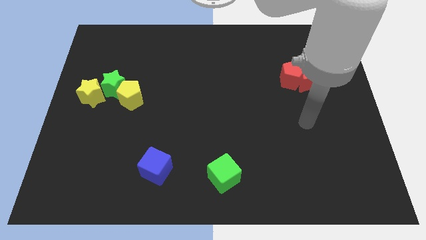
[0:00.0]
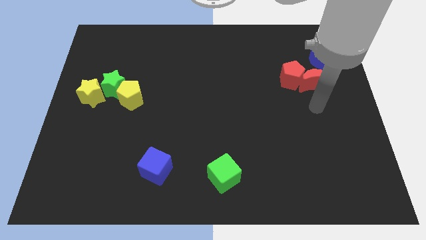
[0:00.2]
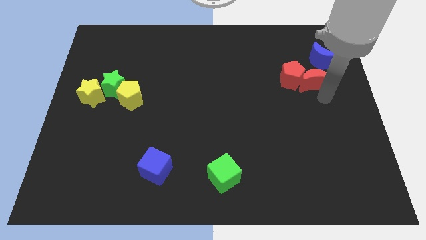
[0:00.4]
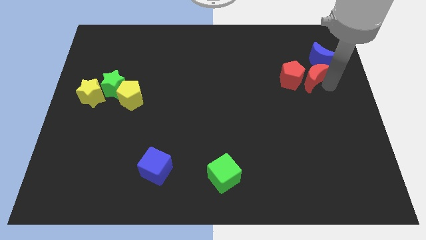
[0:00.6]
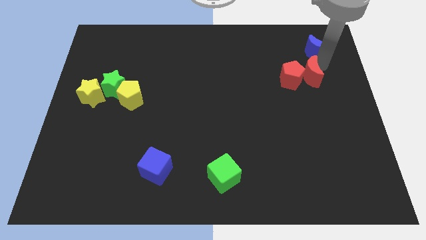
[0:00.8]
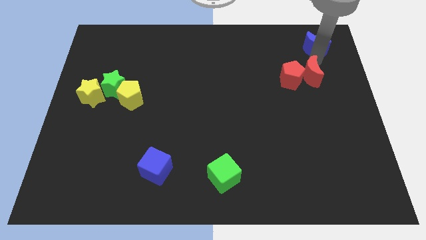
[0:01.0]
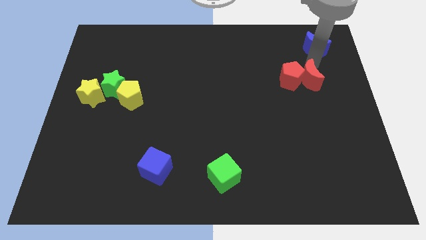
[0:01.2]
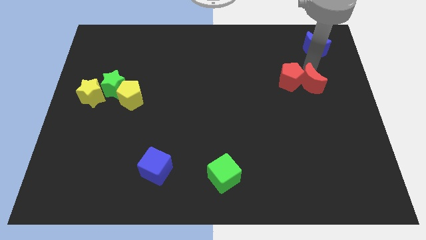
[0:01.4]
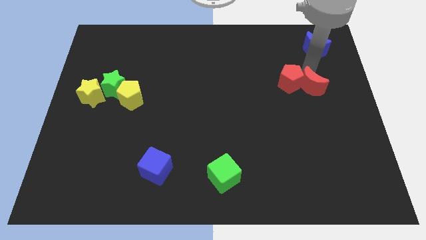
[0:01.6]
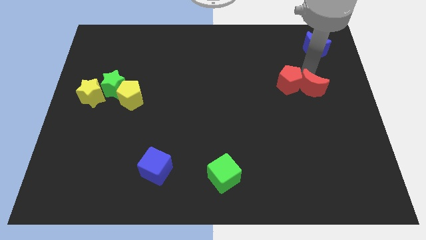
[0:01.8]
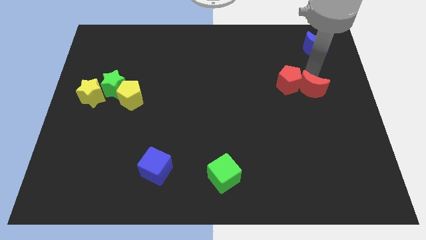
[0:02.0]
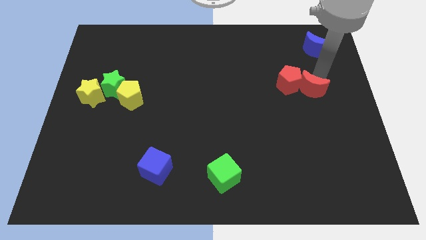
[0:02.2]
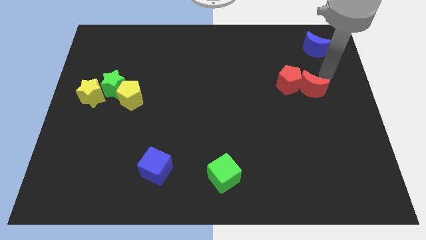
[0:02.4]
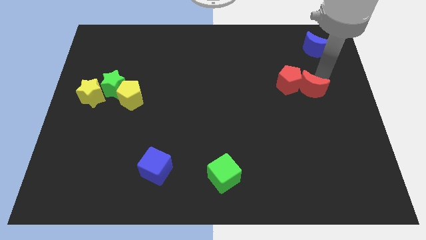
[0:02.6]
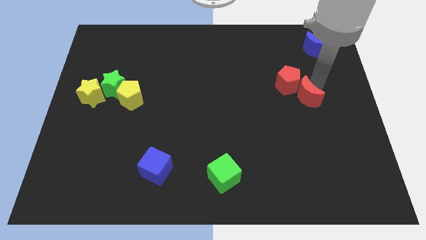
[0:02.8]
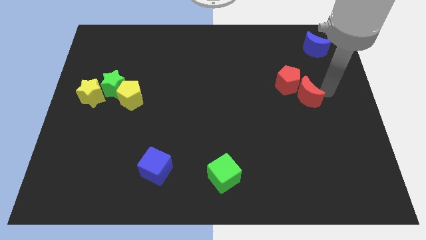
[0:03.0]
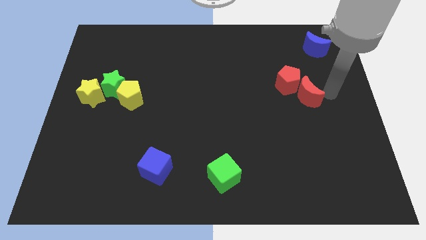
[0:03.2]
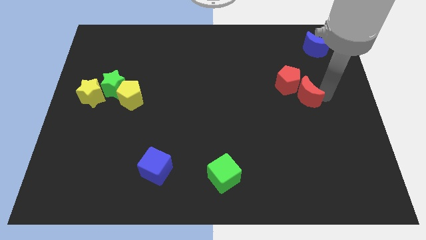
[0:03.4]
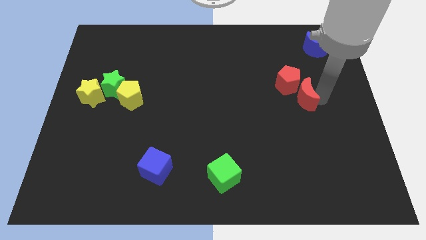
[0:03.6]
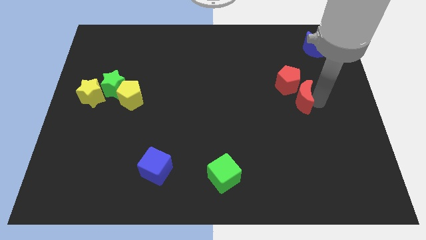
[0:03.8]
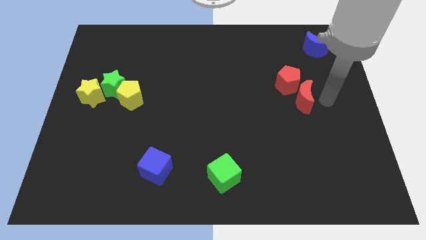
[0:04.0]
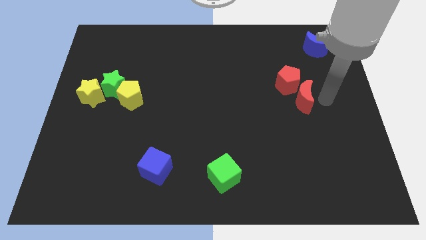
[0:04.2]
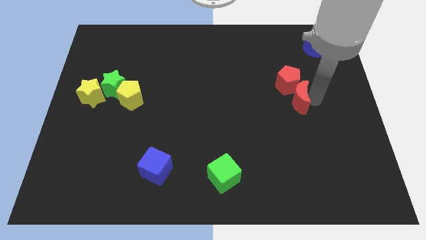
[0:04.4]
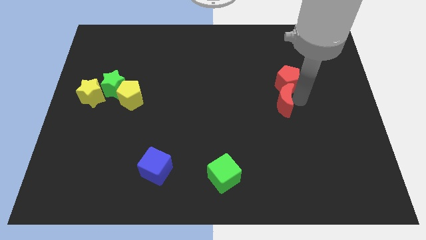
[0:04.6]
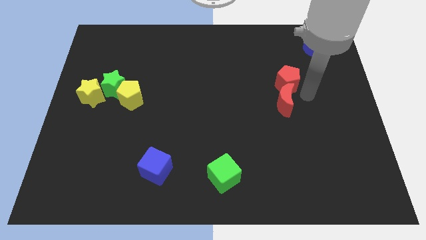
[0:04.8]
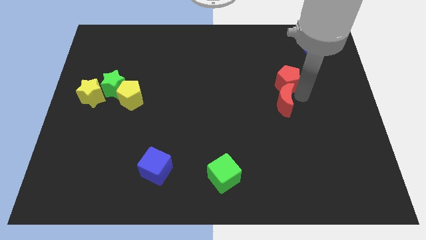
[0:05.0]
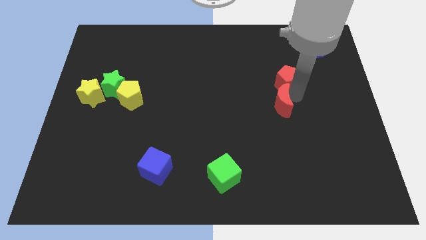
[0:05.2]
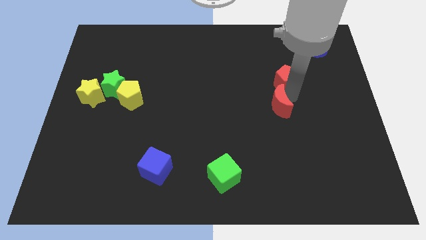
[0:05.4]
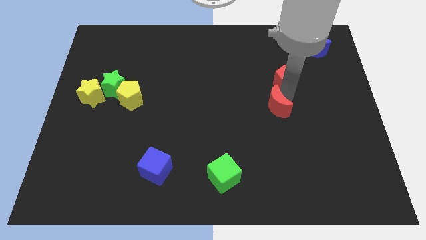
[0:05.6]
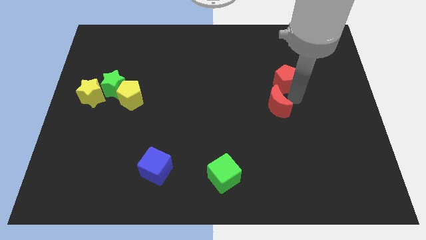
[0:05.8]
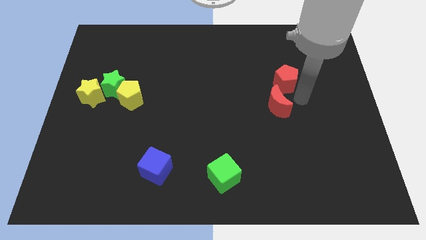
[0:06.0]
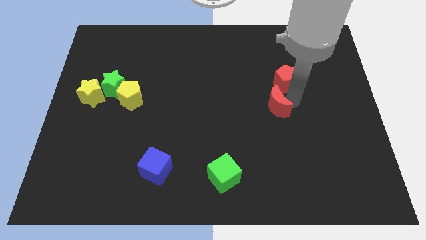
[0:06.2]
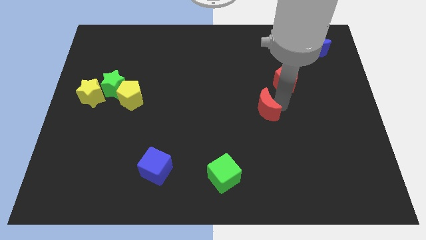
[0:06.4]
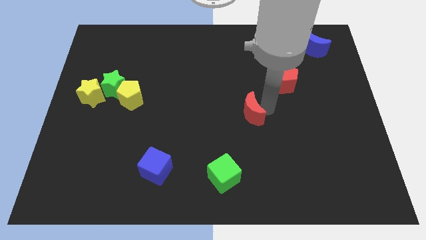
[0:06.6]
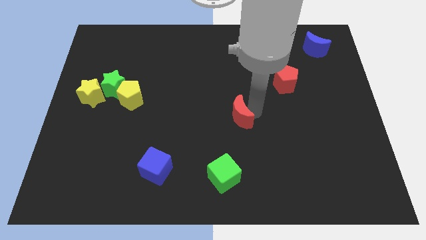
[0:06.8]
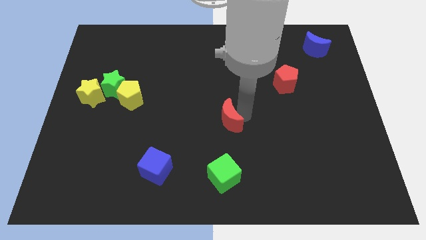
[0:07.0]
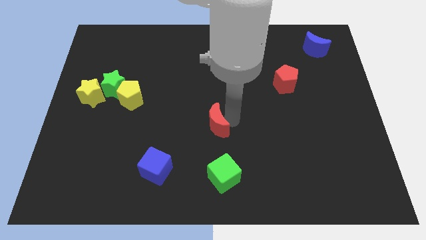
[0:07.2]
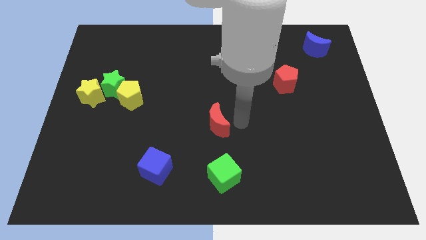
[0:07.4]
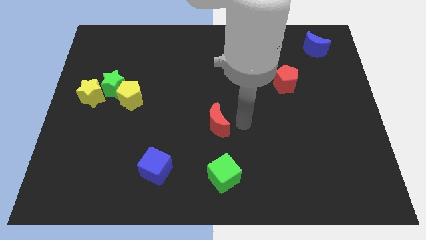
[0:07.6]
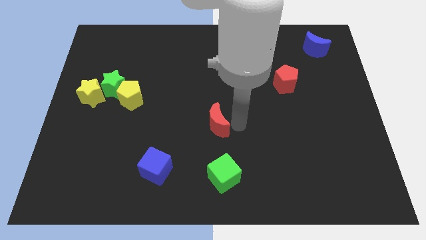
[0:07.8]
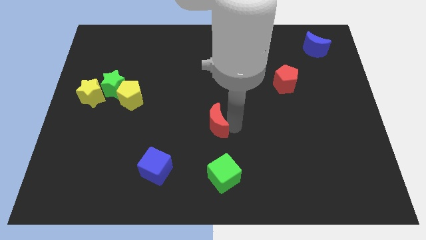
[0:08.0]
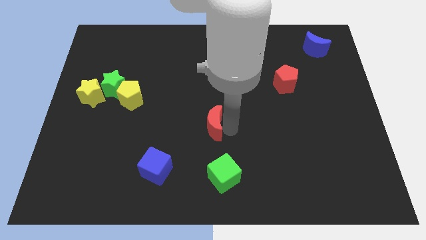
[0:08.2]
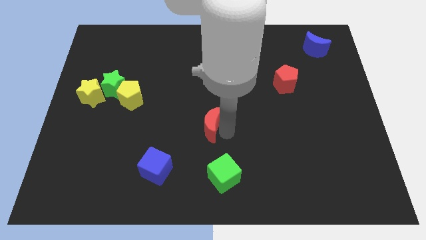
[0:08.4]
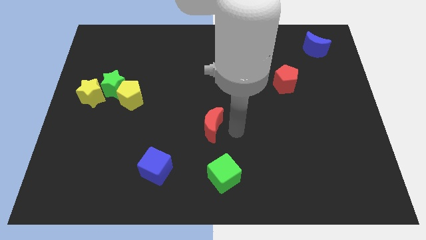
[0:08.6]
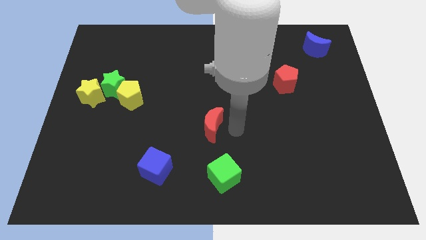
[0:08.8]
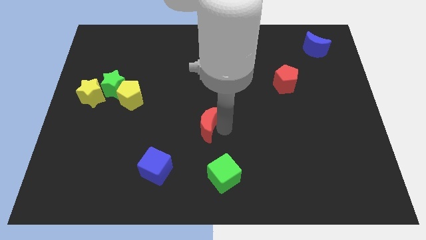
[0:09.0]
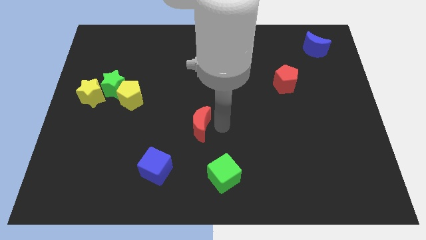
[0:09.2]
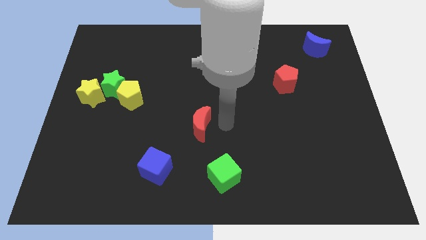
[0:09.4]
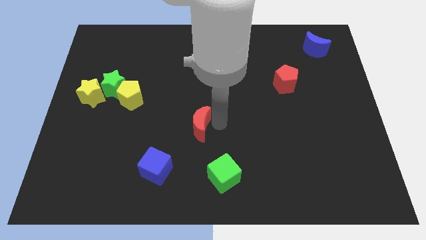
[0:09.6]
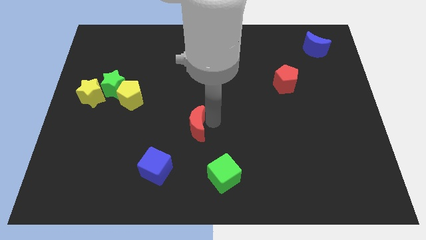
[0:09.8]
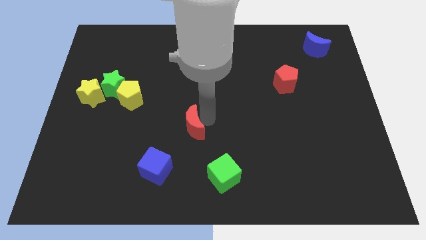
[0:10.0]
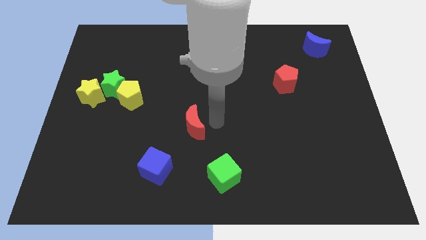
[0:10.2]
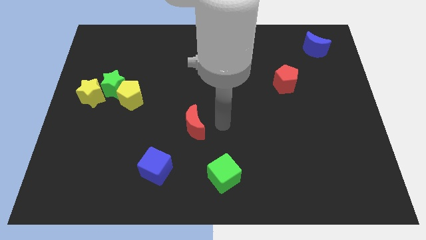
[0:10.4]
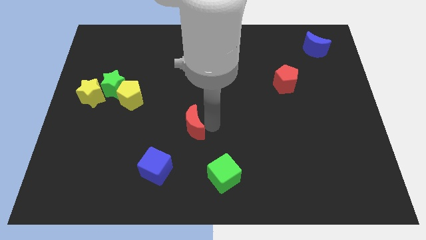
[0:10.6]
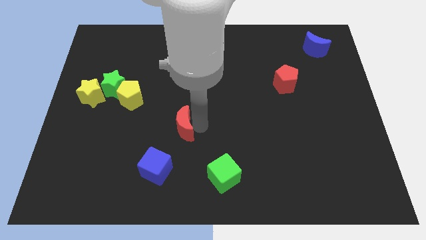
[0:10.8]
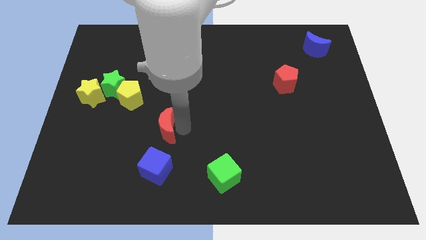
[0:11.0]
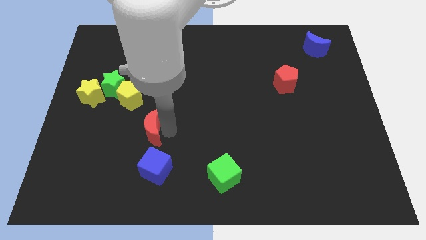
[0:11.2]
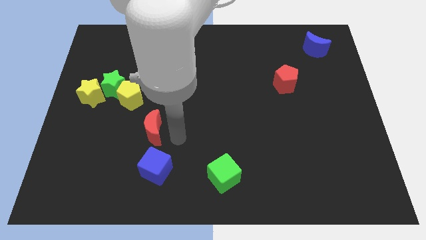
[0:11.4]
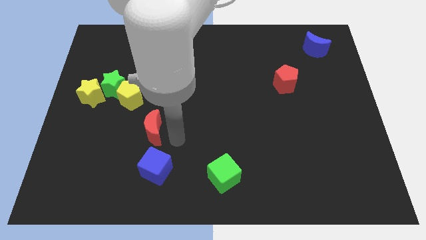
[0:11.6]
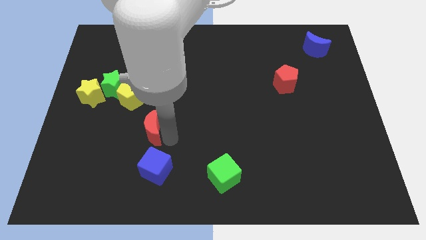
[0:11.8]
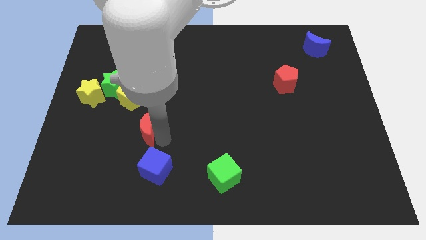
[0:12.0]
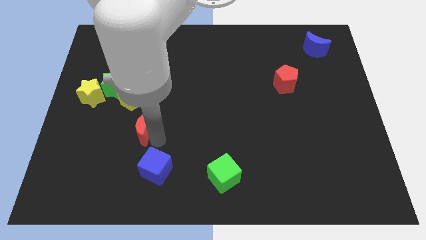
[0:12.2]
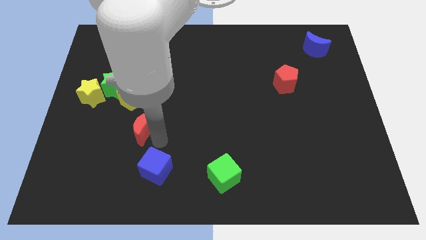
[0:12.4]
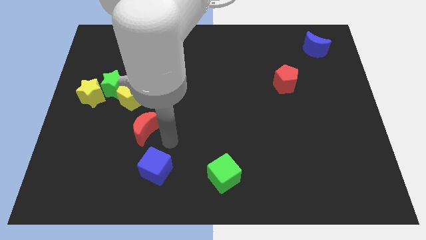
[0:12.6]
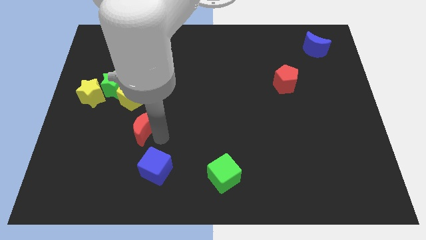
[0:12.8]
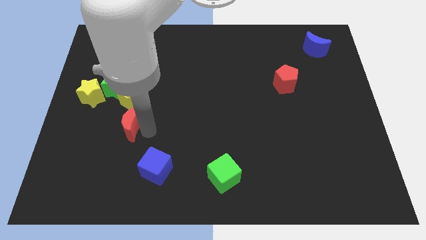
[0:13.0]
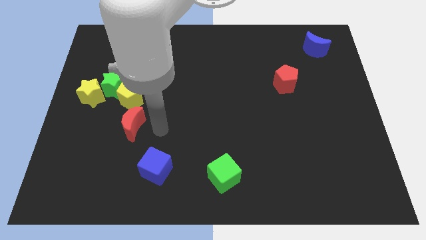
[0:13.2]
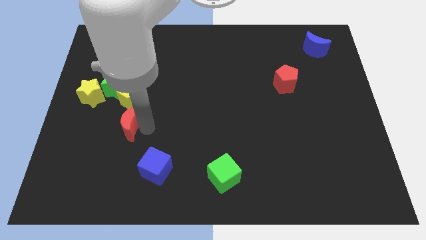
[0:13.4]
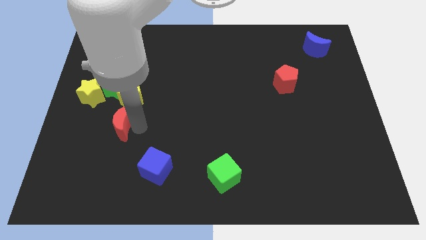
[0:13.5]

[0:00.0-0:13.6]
move the red moon below the green star
